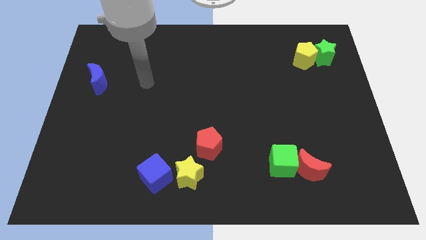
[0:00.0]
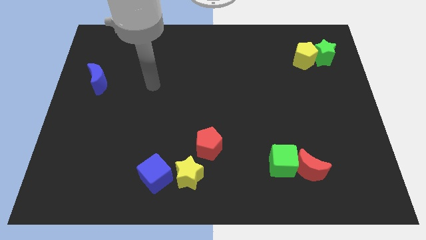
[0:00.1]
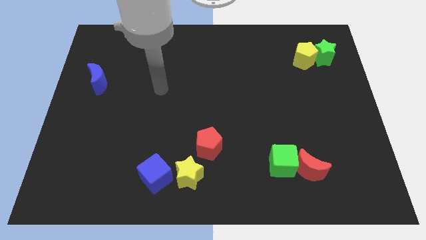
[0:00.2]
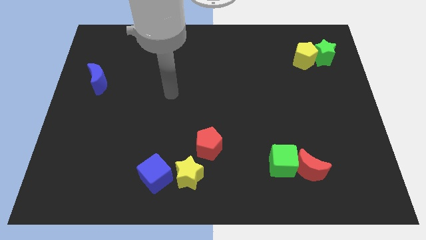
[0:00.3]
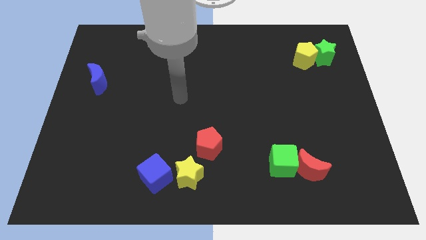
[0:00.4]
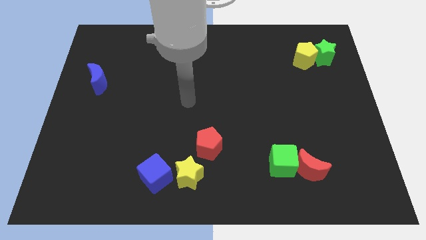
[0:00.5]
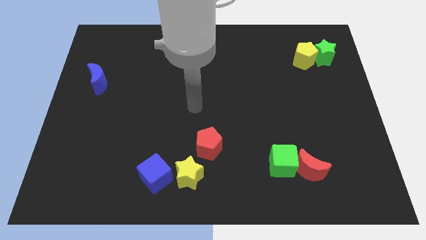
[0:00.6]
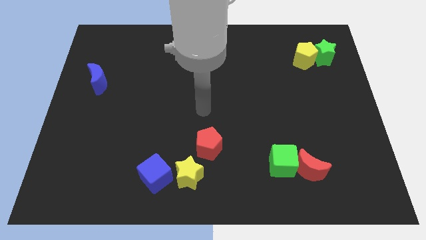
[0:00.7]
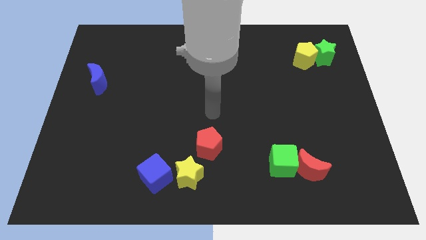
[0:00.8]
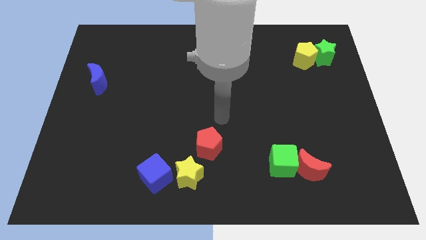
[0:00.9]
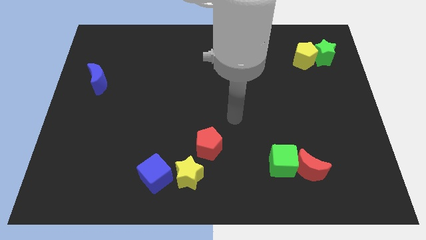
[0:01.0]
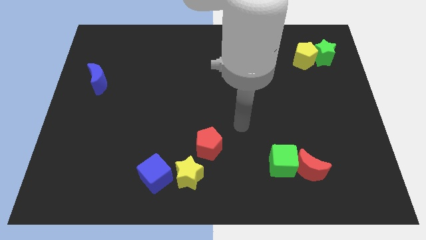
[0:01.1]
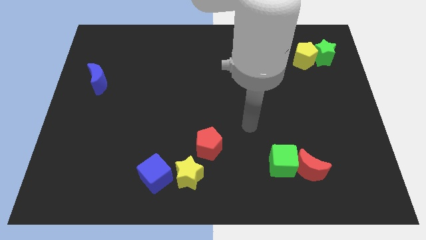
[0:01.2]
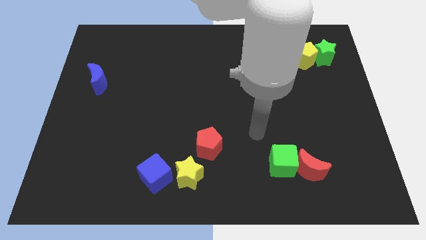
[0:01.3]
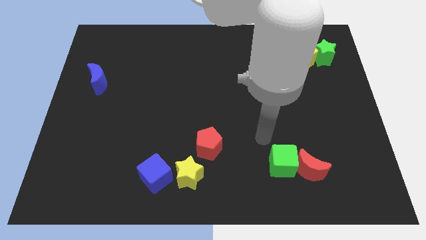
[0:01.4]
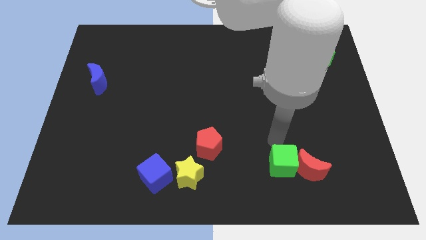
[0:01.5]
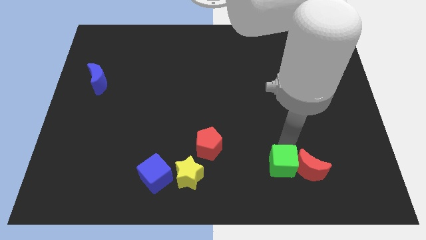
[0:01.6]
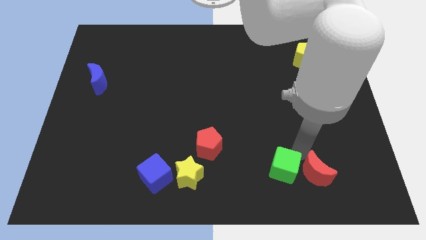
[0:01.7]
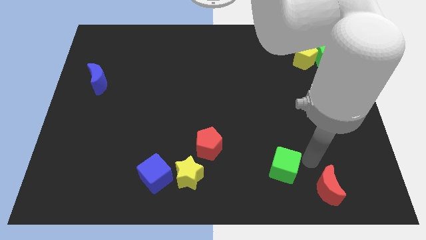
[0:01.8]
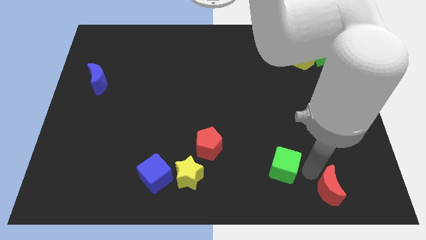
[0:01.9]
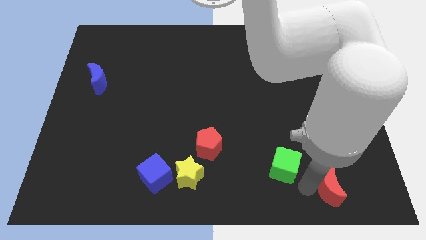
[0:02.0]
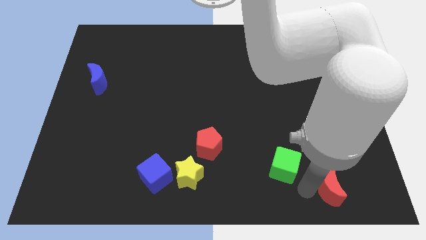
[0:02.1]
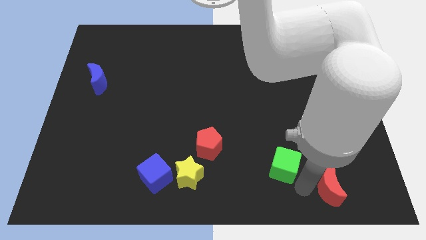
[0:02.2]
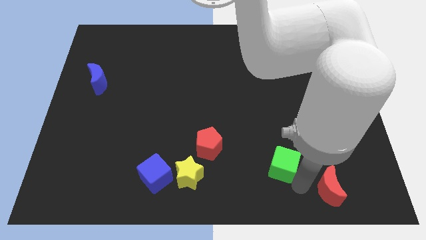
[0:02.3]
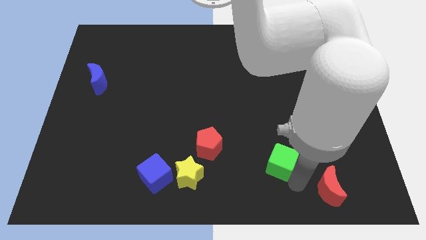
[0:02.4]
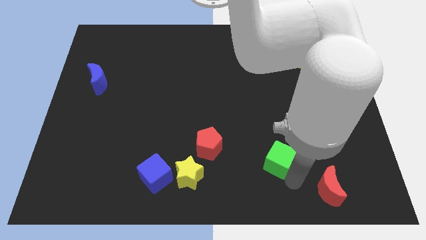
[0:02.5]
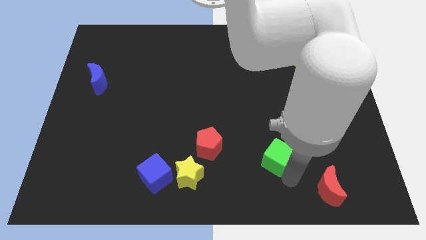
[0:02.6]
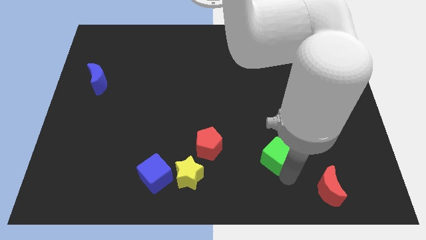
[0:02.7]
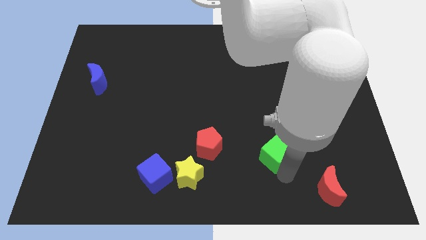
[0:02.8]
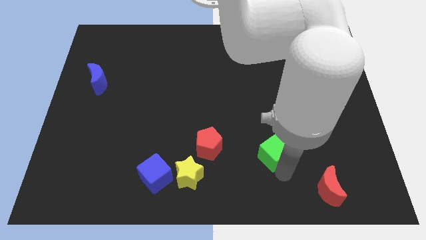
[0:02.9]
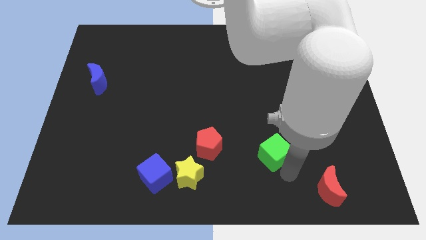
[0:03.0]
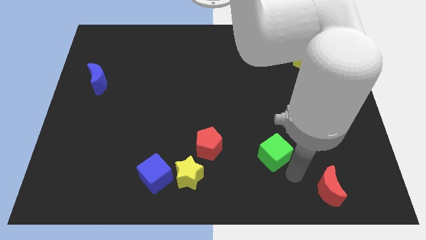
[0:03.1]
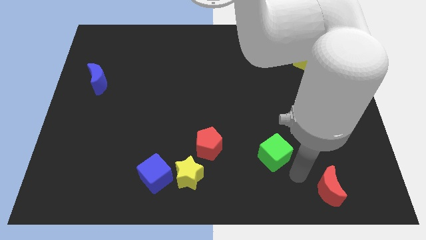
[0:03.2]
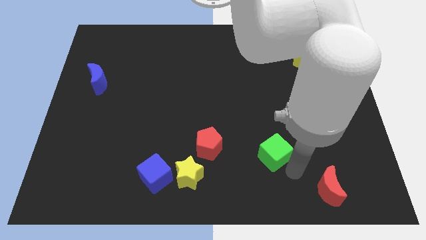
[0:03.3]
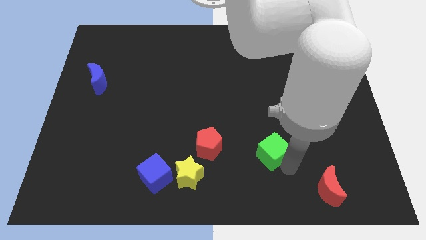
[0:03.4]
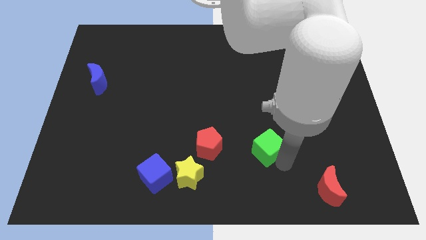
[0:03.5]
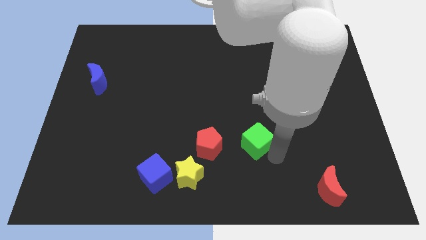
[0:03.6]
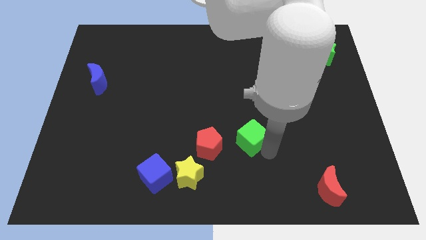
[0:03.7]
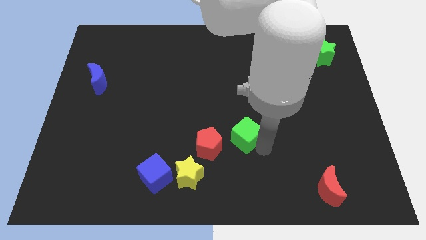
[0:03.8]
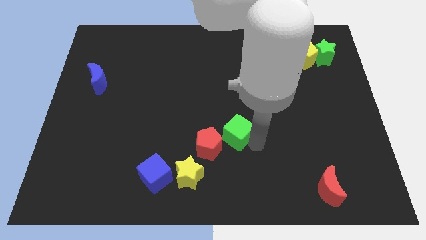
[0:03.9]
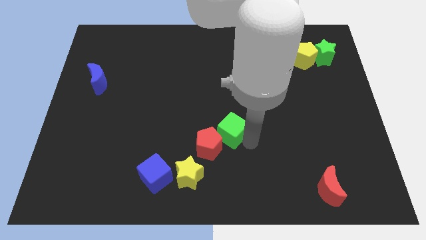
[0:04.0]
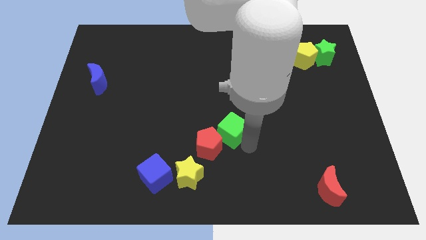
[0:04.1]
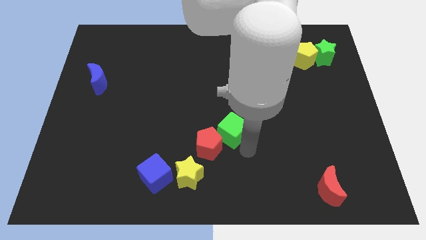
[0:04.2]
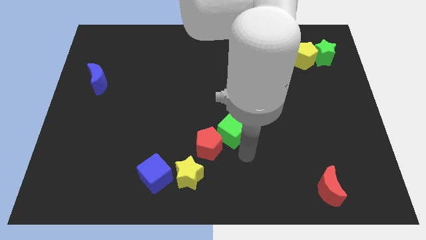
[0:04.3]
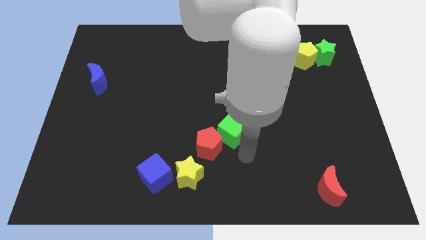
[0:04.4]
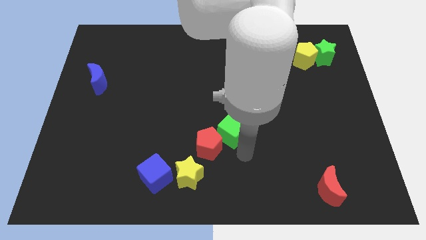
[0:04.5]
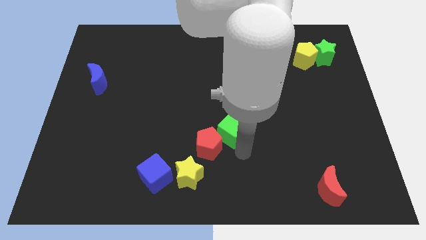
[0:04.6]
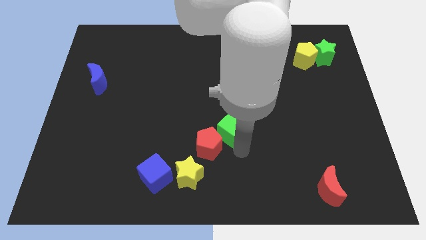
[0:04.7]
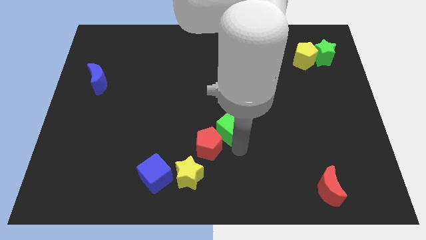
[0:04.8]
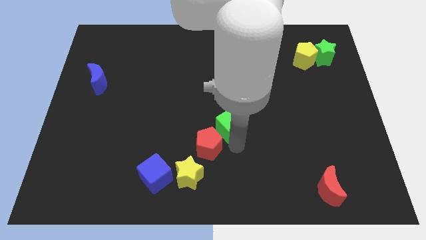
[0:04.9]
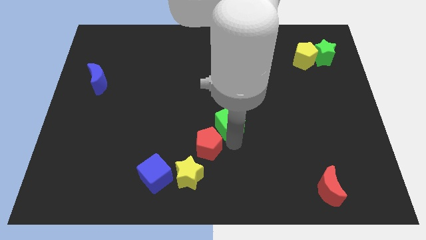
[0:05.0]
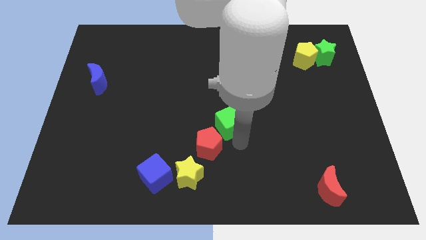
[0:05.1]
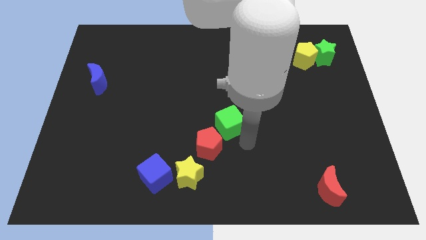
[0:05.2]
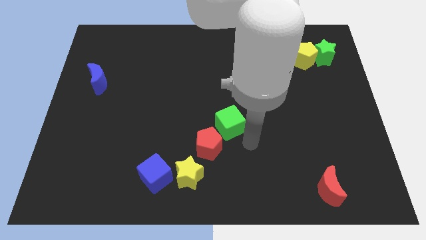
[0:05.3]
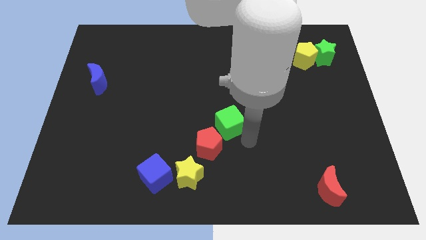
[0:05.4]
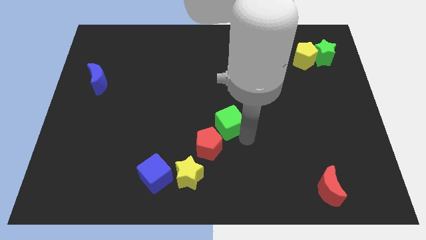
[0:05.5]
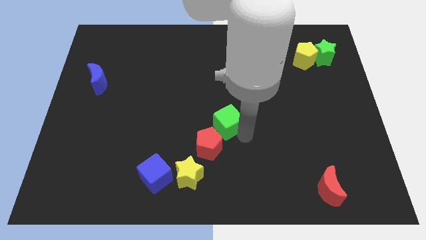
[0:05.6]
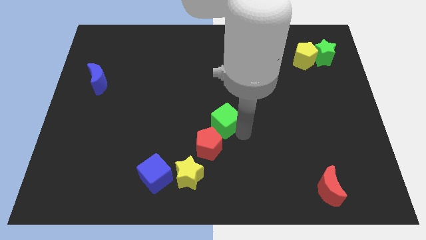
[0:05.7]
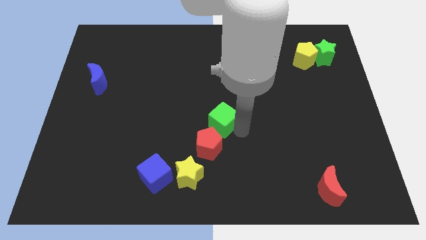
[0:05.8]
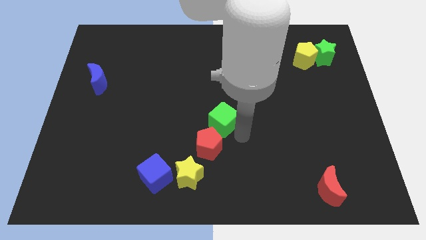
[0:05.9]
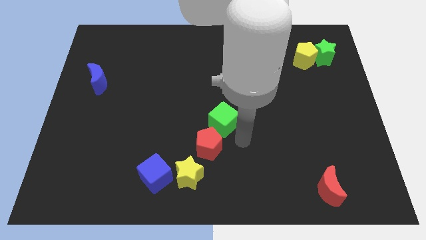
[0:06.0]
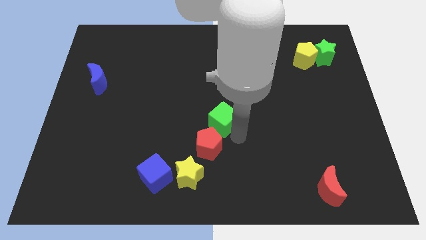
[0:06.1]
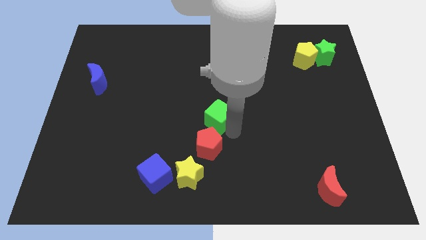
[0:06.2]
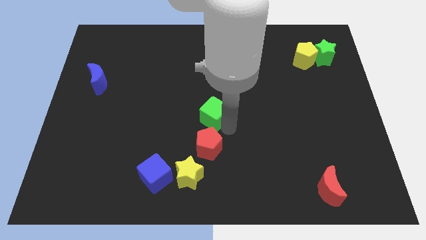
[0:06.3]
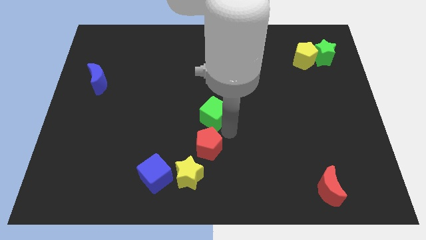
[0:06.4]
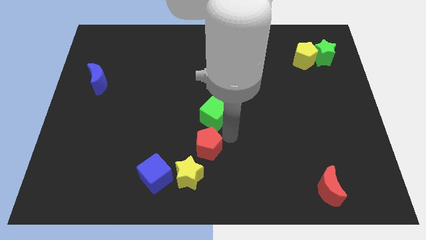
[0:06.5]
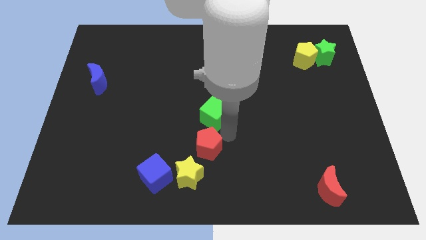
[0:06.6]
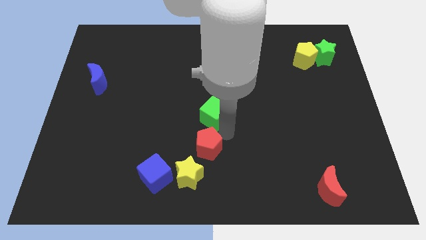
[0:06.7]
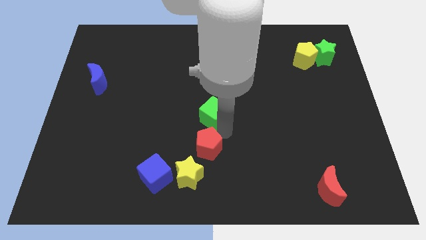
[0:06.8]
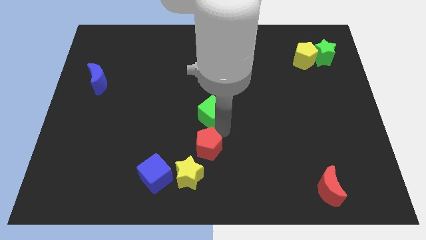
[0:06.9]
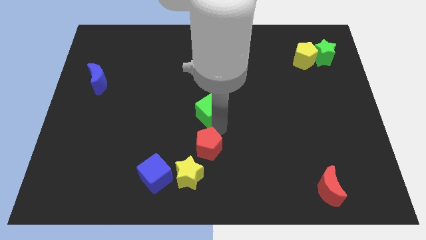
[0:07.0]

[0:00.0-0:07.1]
push the green cube upwards and left diagonally

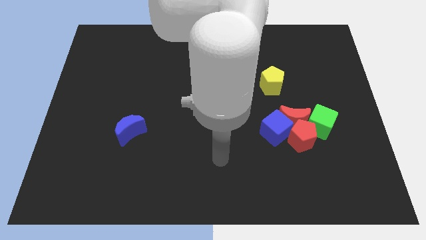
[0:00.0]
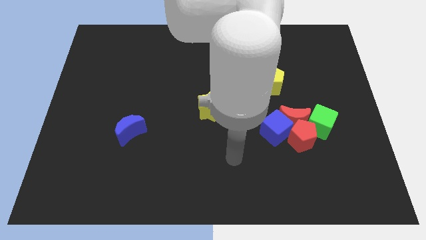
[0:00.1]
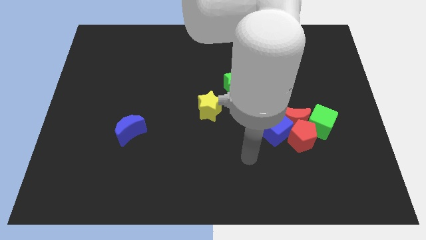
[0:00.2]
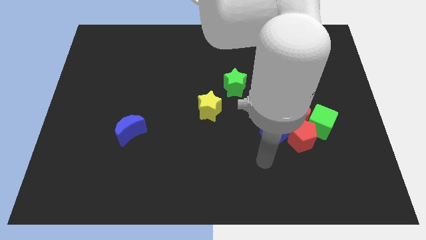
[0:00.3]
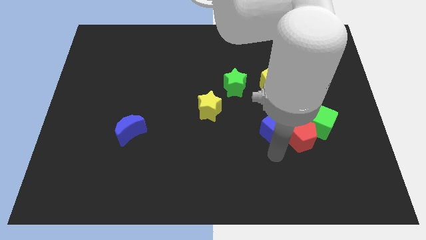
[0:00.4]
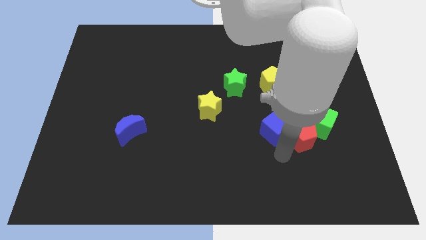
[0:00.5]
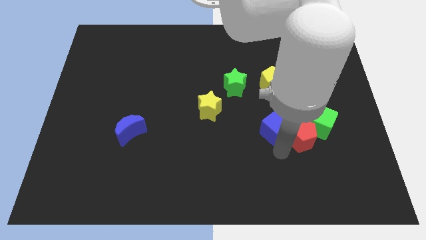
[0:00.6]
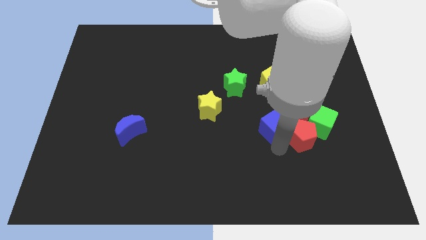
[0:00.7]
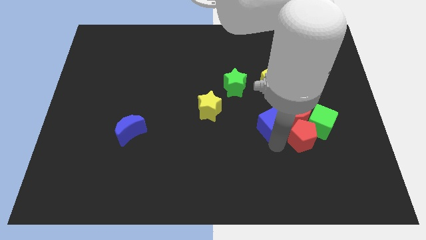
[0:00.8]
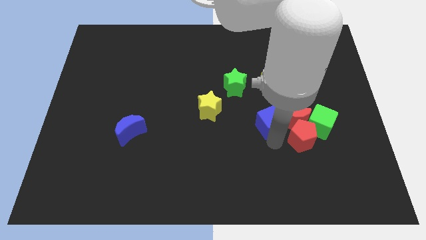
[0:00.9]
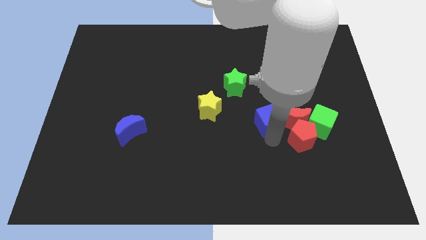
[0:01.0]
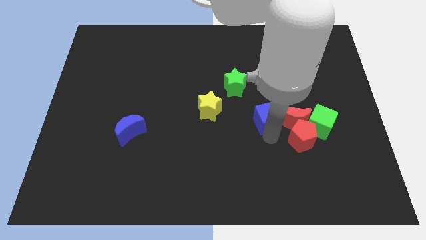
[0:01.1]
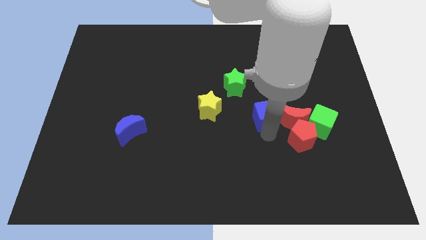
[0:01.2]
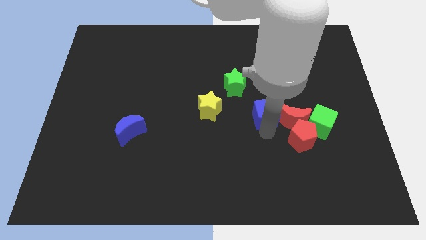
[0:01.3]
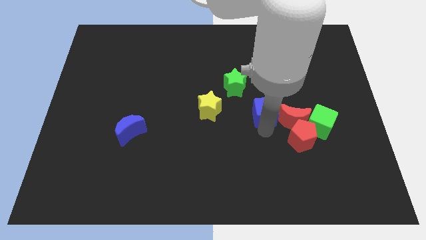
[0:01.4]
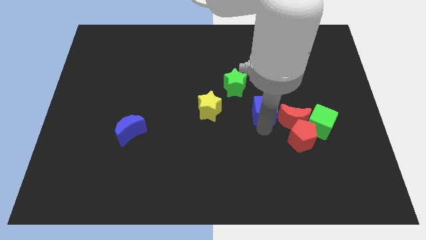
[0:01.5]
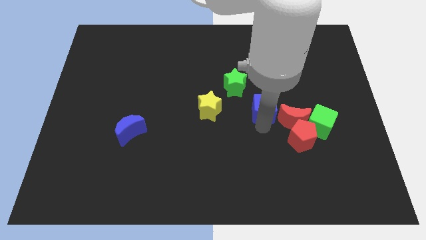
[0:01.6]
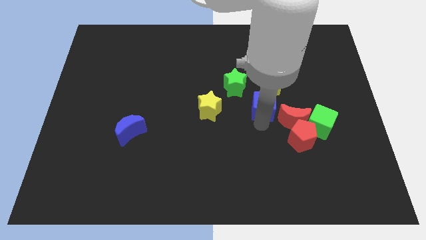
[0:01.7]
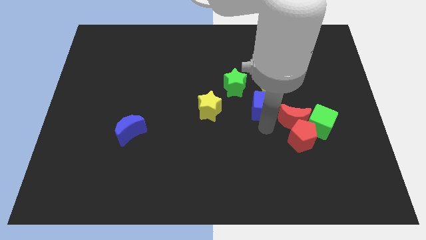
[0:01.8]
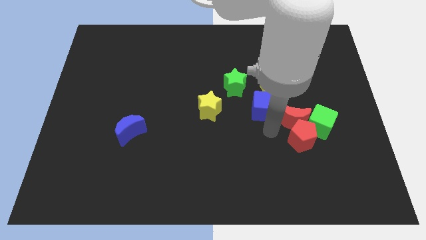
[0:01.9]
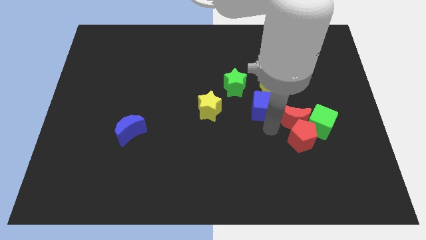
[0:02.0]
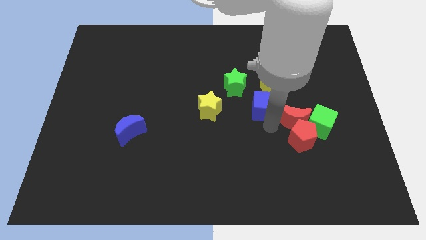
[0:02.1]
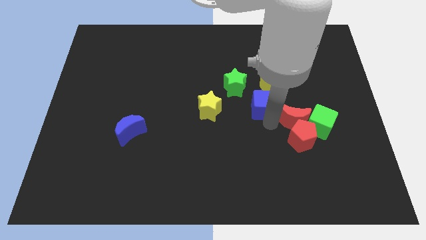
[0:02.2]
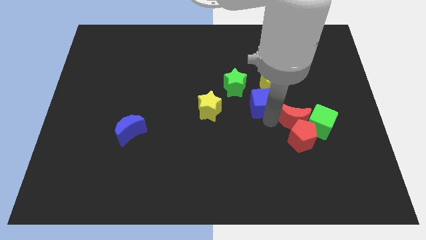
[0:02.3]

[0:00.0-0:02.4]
move the blue cube a little upwards
